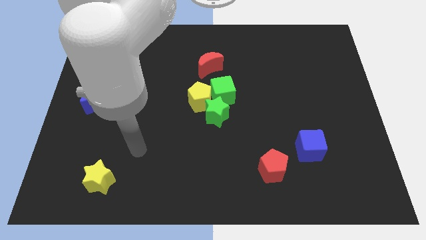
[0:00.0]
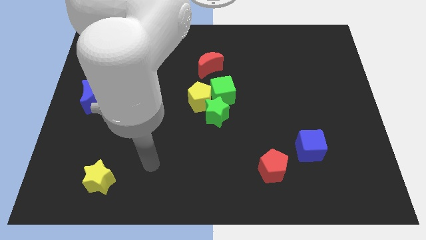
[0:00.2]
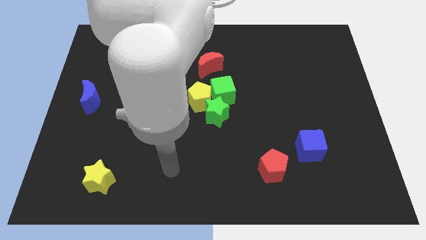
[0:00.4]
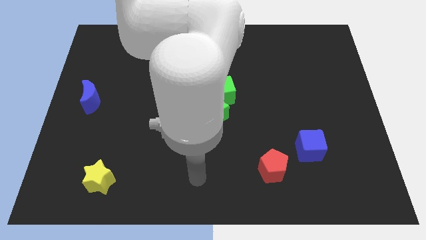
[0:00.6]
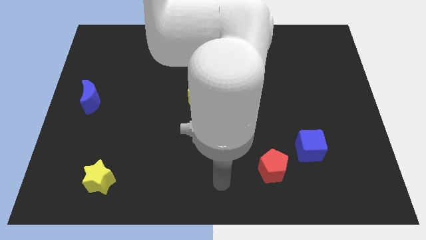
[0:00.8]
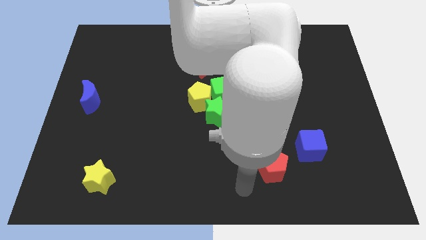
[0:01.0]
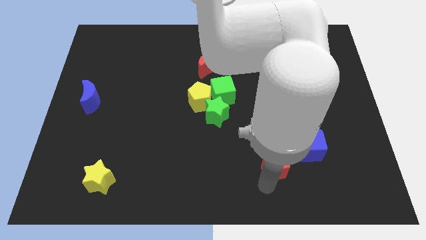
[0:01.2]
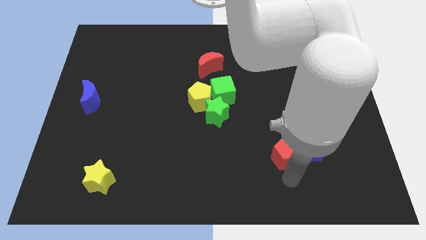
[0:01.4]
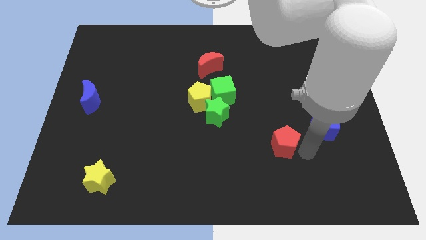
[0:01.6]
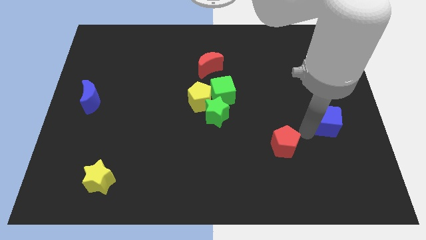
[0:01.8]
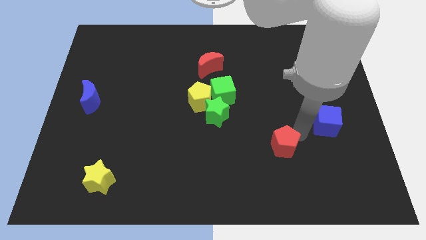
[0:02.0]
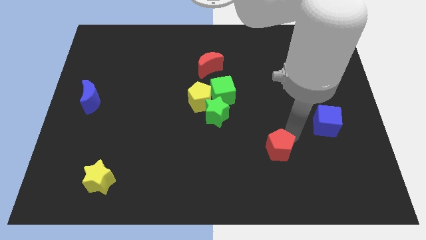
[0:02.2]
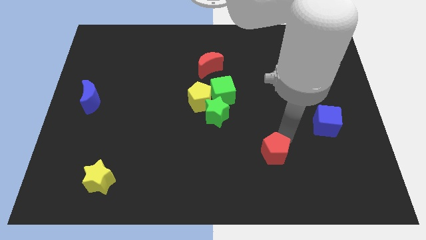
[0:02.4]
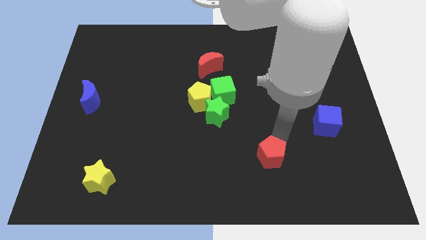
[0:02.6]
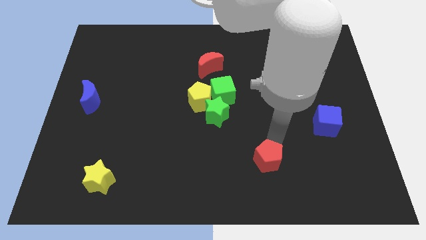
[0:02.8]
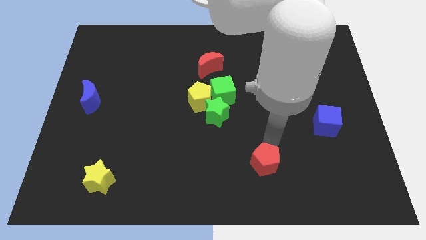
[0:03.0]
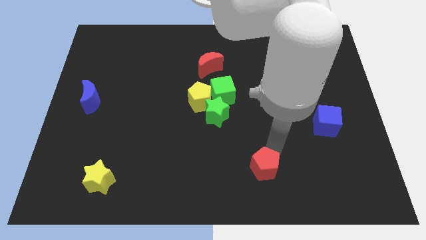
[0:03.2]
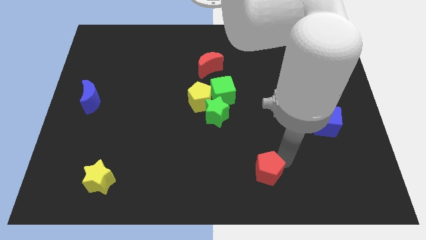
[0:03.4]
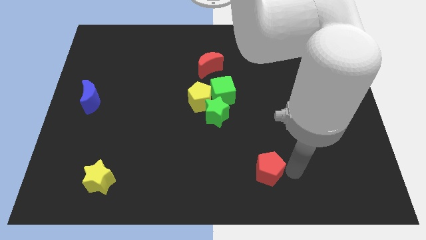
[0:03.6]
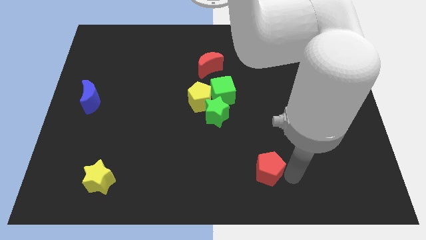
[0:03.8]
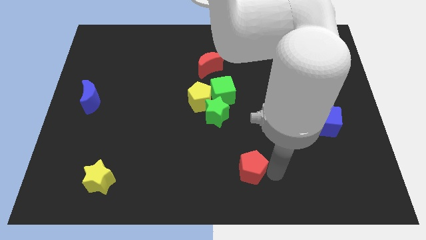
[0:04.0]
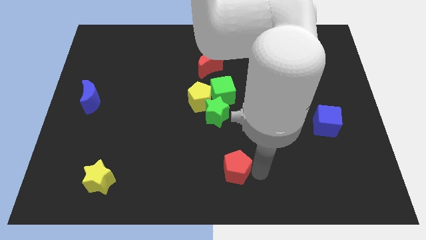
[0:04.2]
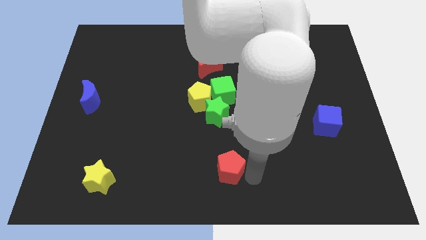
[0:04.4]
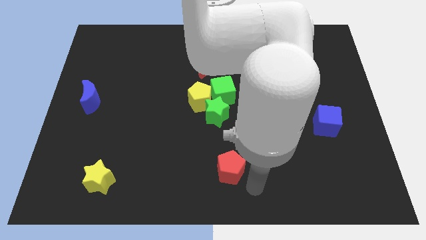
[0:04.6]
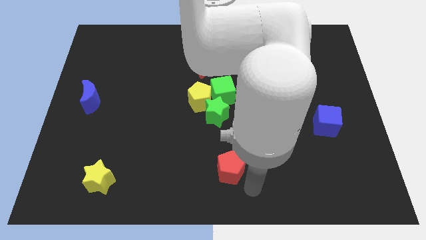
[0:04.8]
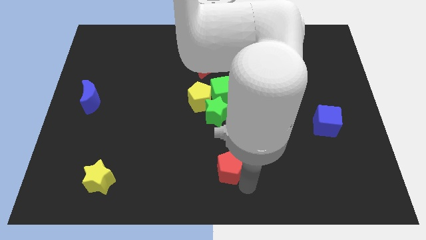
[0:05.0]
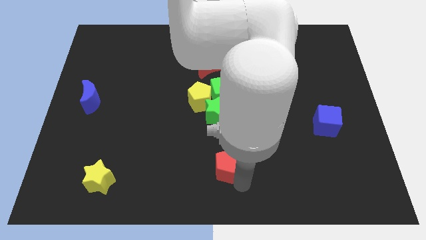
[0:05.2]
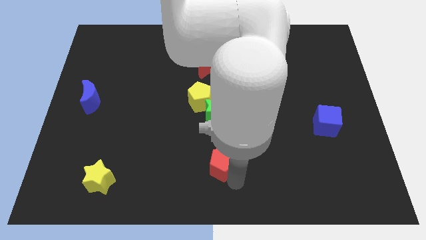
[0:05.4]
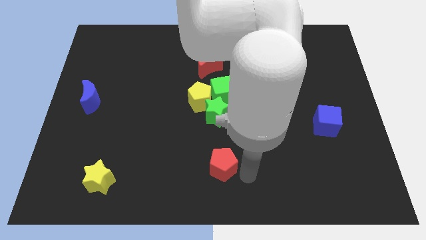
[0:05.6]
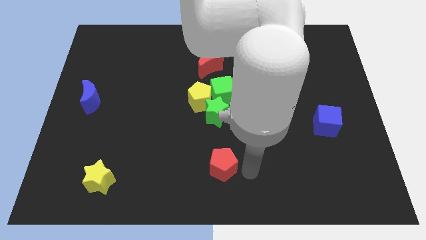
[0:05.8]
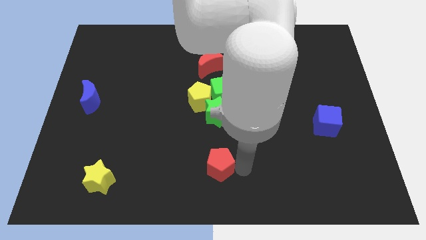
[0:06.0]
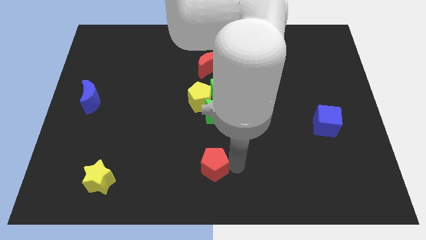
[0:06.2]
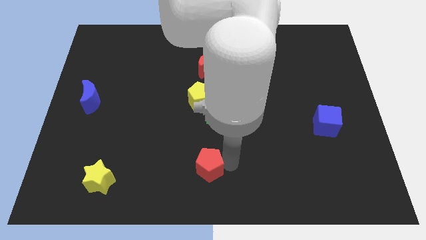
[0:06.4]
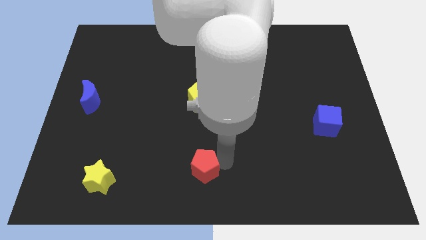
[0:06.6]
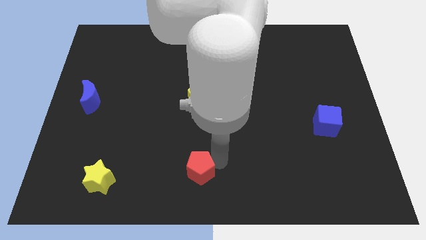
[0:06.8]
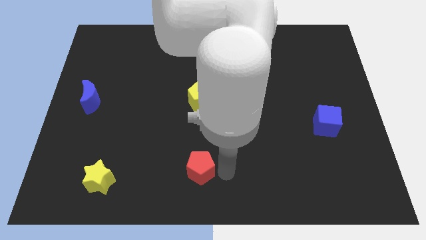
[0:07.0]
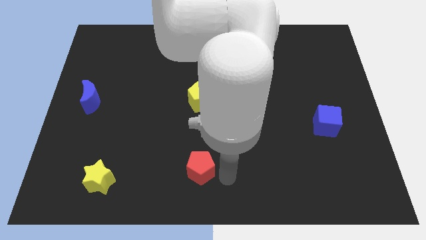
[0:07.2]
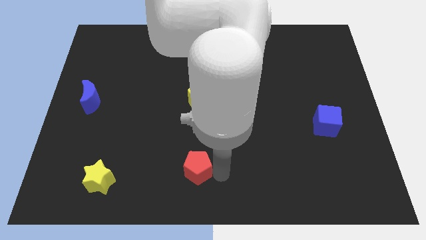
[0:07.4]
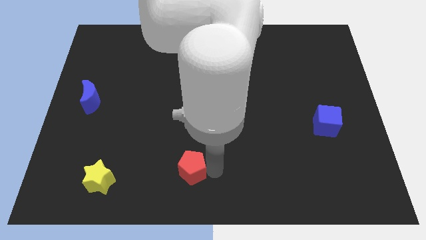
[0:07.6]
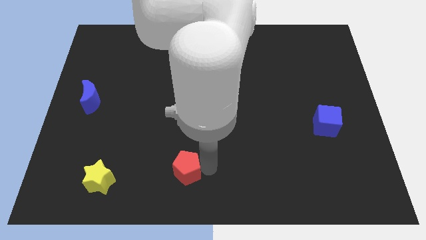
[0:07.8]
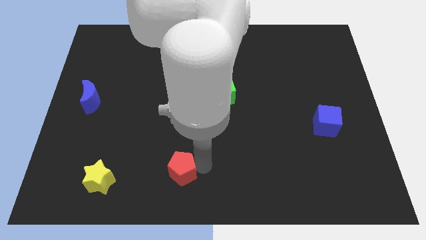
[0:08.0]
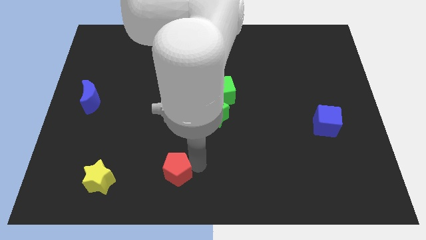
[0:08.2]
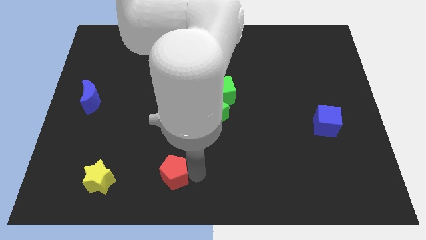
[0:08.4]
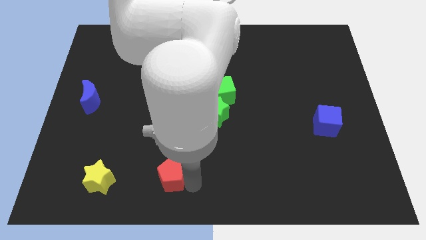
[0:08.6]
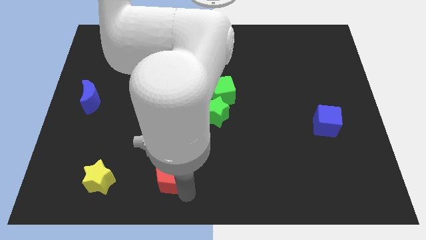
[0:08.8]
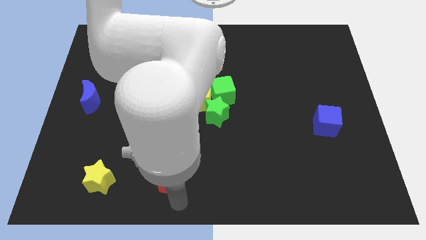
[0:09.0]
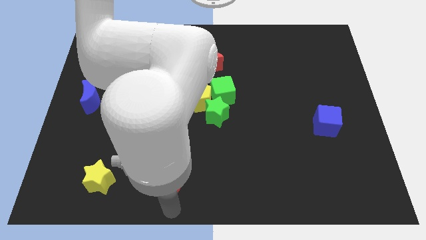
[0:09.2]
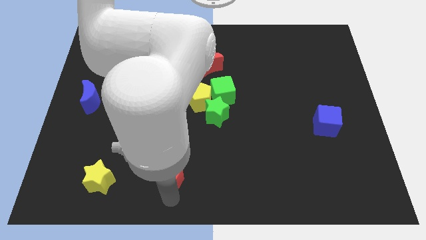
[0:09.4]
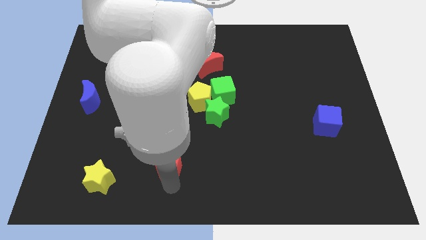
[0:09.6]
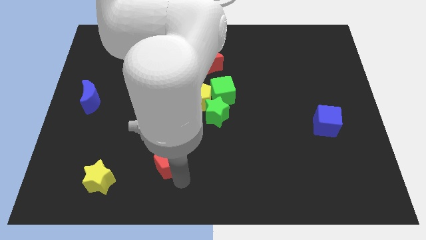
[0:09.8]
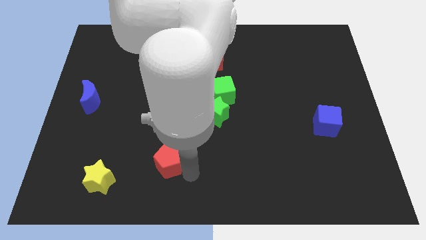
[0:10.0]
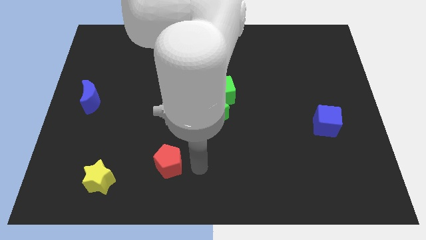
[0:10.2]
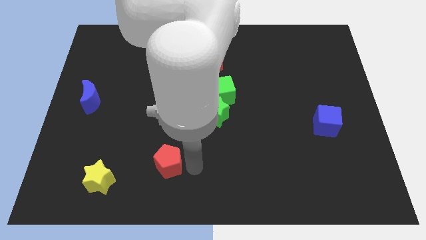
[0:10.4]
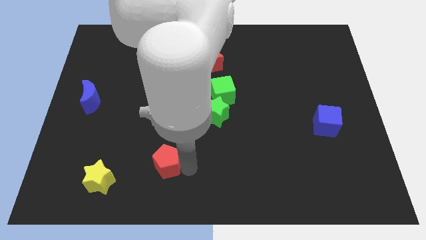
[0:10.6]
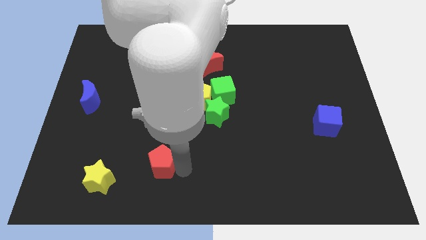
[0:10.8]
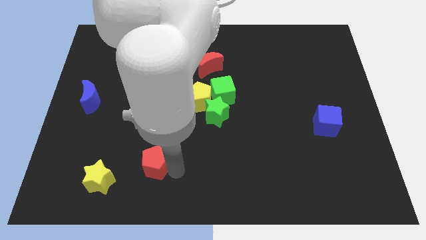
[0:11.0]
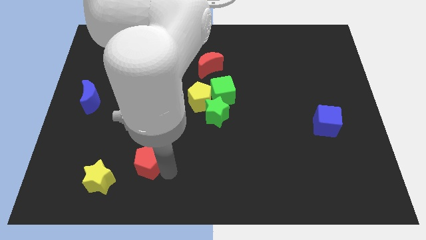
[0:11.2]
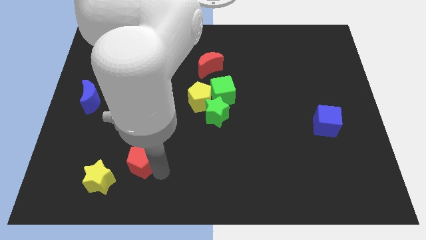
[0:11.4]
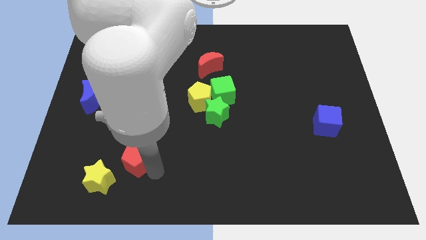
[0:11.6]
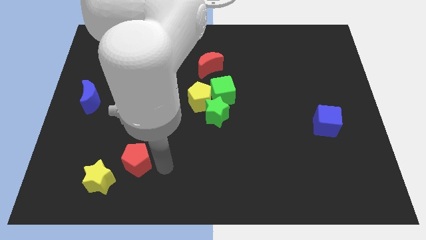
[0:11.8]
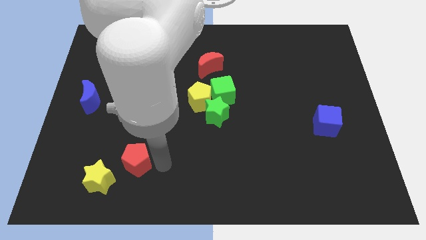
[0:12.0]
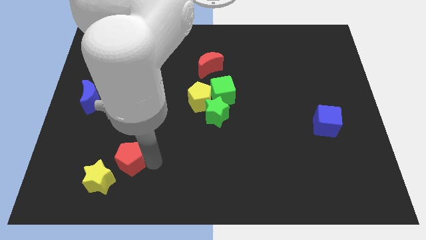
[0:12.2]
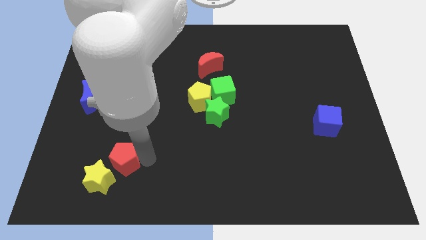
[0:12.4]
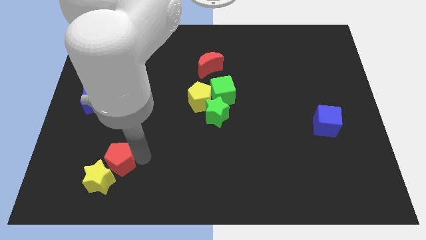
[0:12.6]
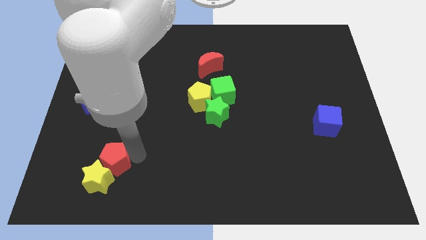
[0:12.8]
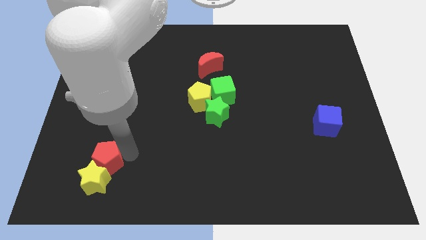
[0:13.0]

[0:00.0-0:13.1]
slide the red pentagon diagonally up and to the left of the yellow star
